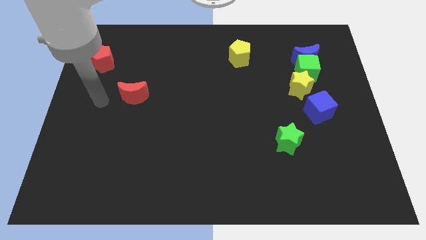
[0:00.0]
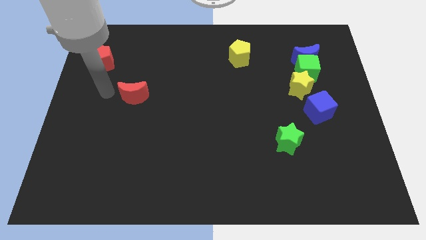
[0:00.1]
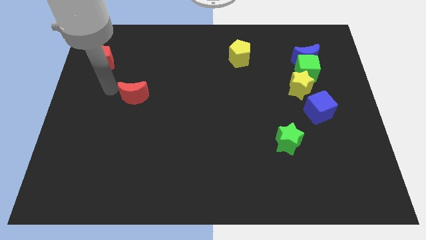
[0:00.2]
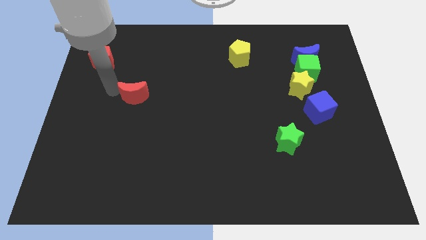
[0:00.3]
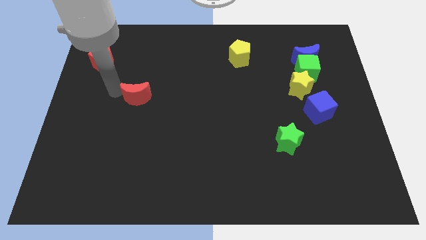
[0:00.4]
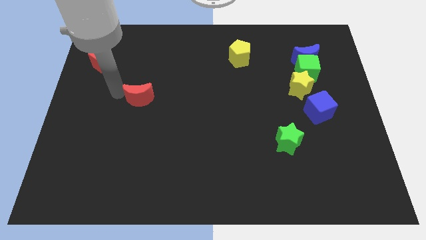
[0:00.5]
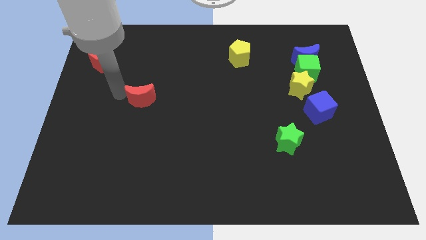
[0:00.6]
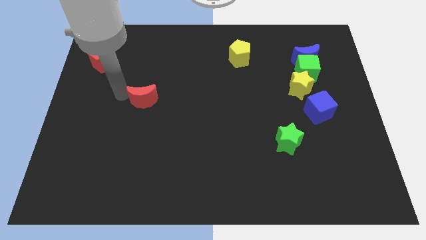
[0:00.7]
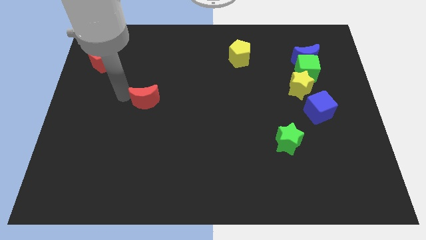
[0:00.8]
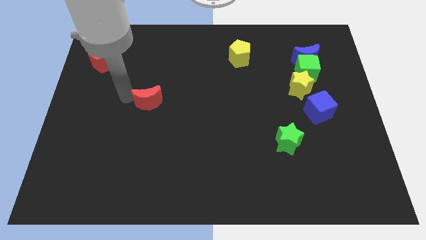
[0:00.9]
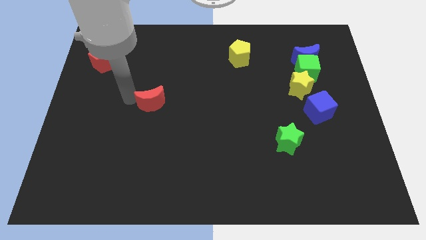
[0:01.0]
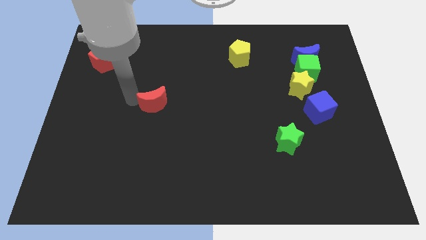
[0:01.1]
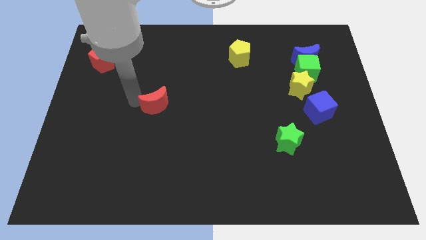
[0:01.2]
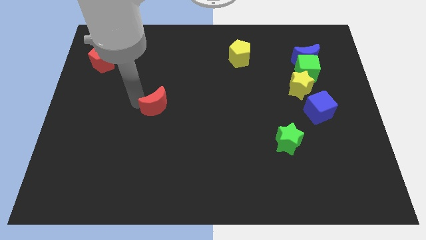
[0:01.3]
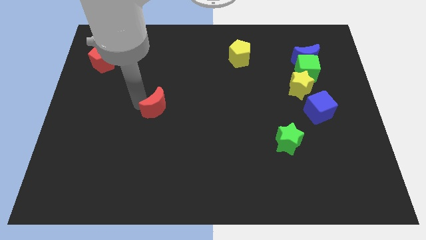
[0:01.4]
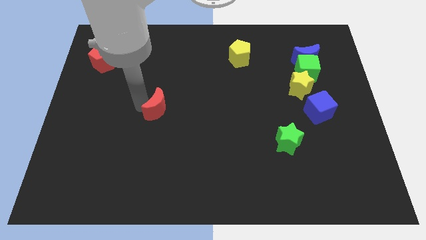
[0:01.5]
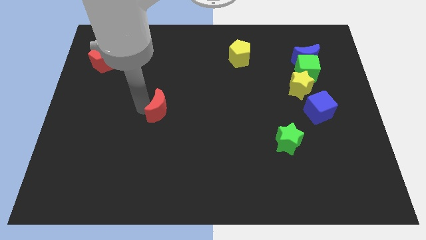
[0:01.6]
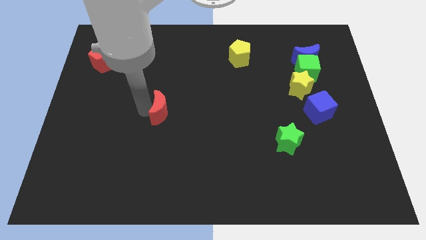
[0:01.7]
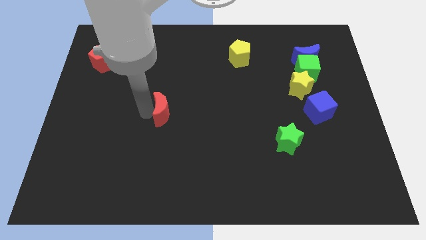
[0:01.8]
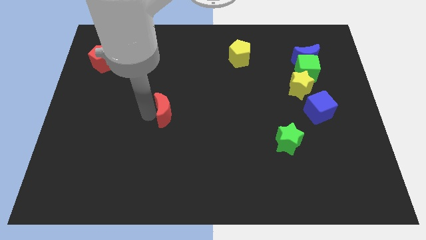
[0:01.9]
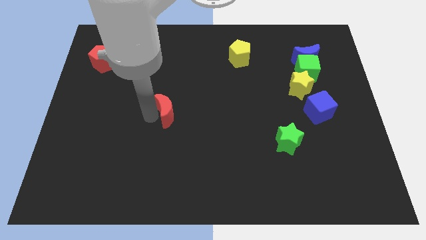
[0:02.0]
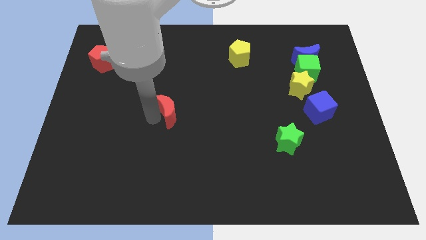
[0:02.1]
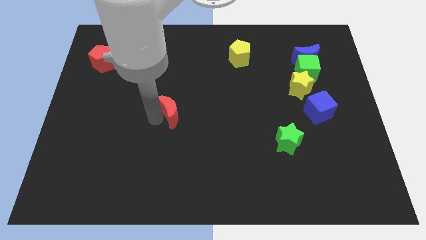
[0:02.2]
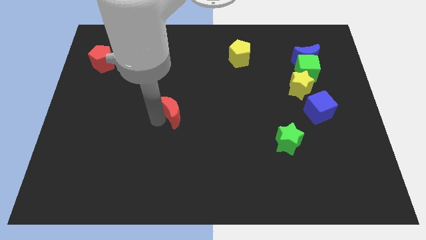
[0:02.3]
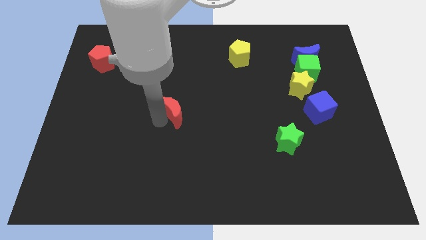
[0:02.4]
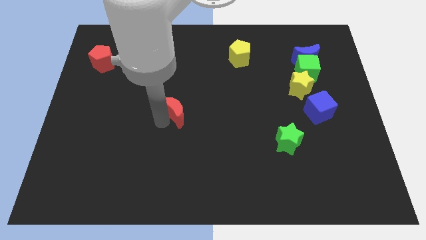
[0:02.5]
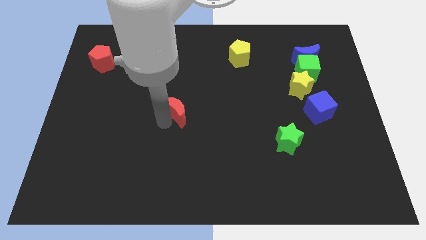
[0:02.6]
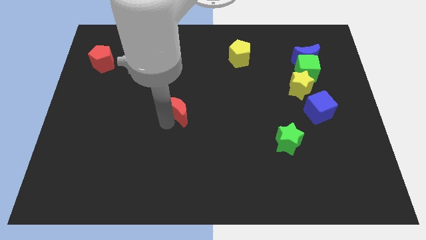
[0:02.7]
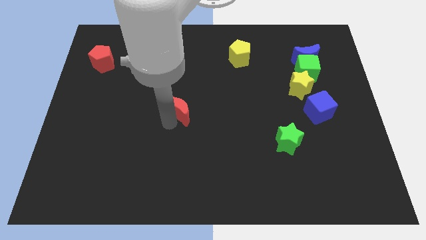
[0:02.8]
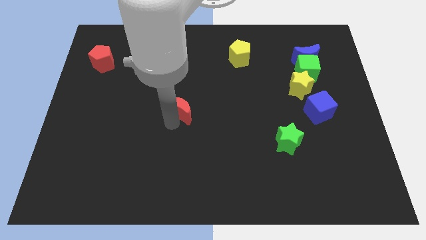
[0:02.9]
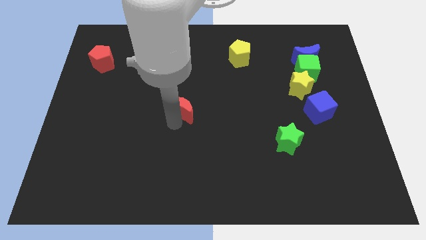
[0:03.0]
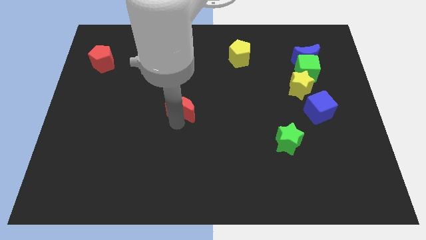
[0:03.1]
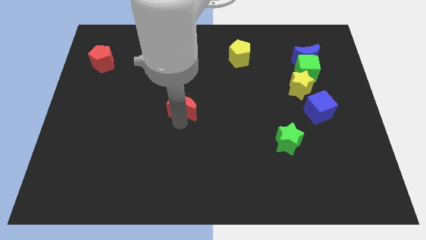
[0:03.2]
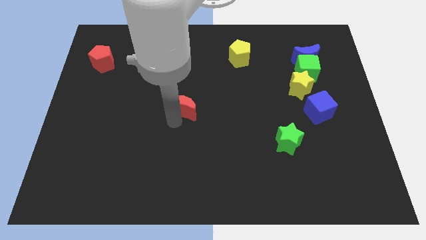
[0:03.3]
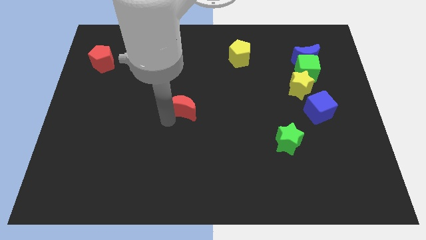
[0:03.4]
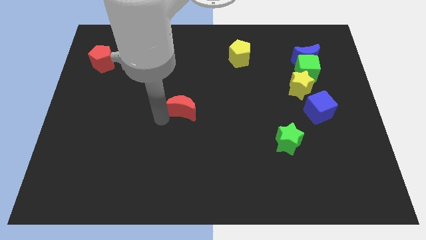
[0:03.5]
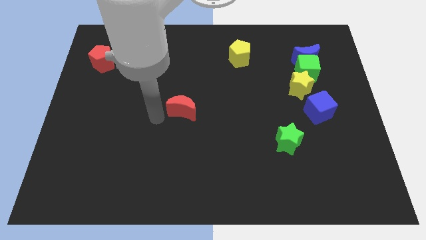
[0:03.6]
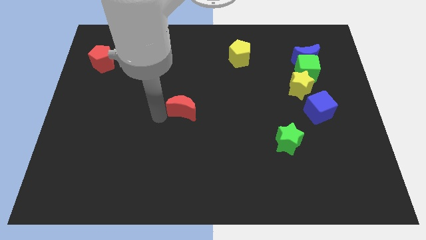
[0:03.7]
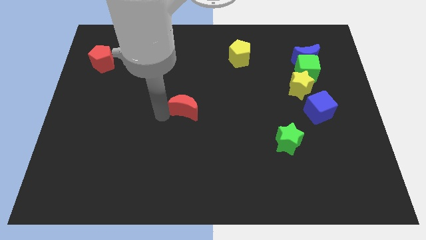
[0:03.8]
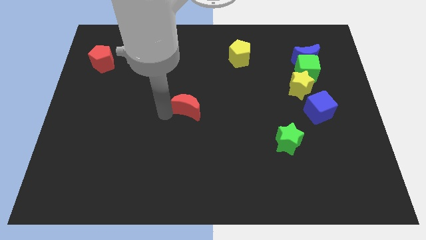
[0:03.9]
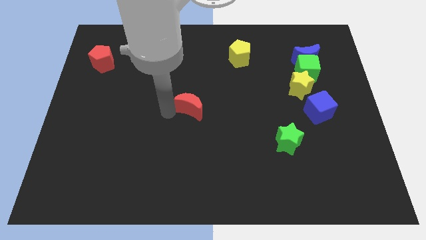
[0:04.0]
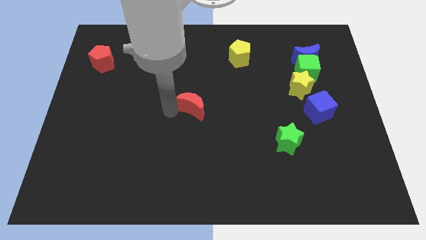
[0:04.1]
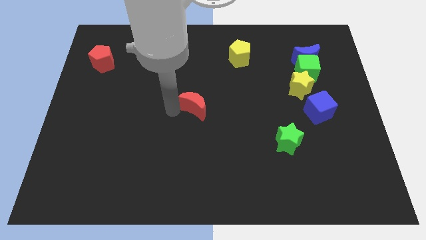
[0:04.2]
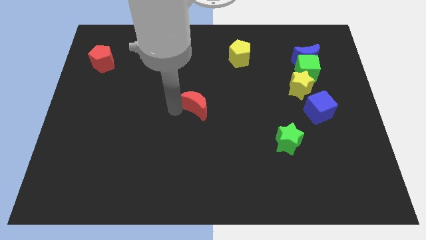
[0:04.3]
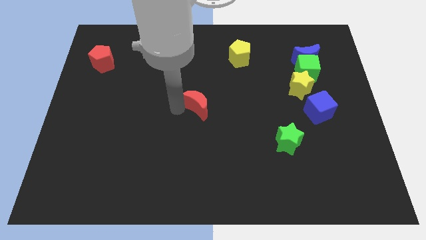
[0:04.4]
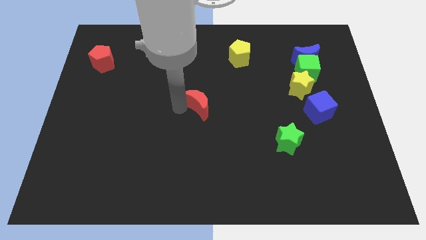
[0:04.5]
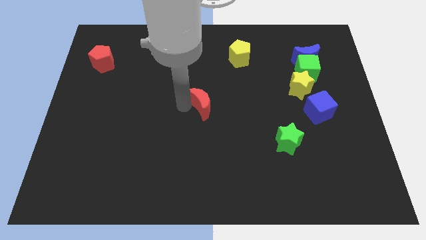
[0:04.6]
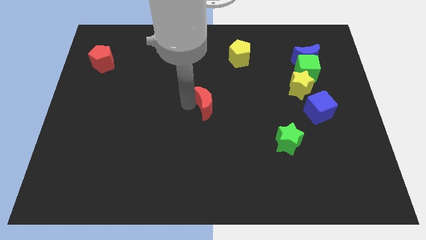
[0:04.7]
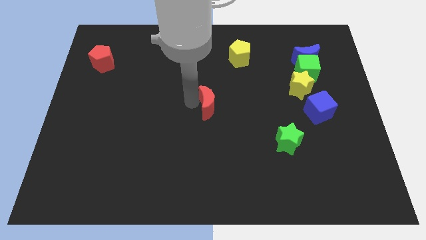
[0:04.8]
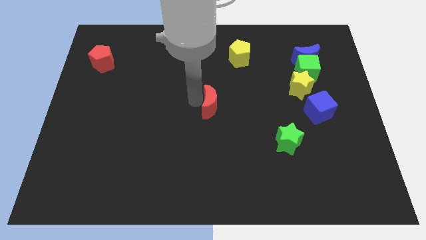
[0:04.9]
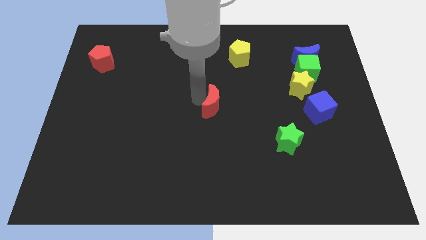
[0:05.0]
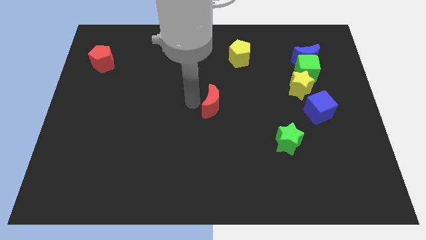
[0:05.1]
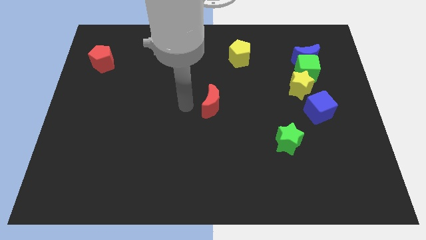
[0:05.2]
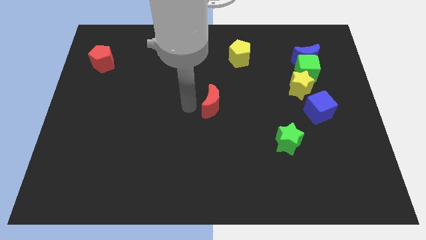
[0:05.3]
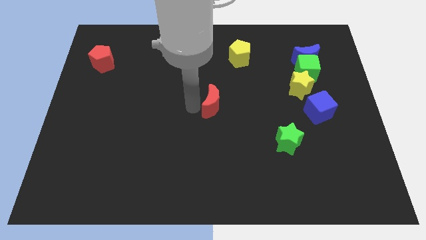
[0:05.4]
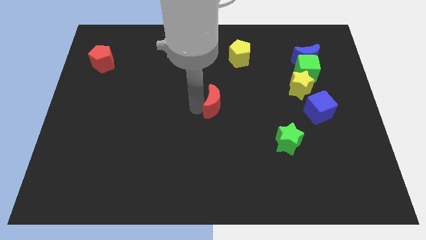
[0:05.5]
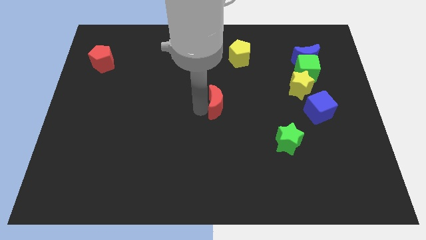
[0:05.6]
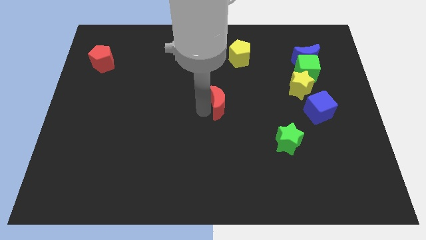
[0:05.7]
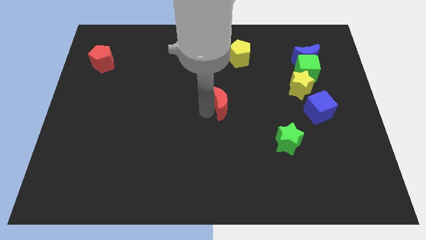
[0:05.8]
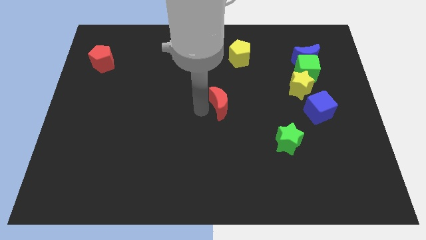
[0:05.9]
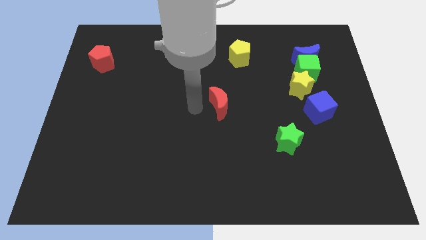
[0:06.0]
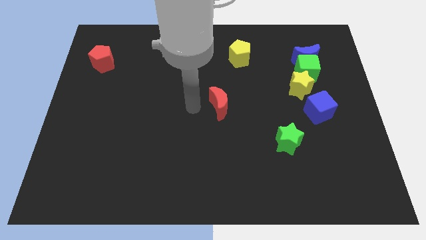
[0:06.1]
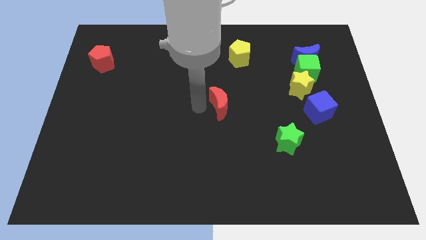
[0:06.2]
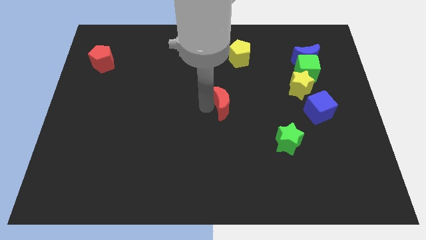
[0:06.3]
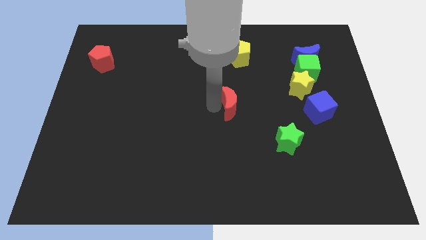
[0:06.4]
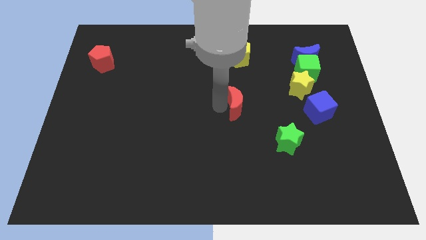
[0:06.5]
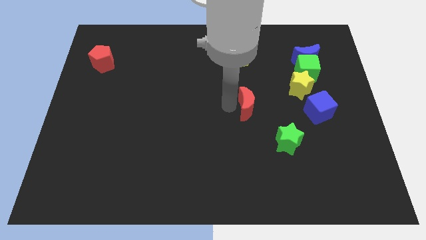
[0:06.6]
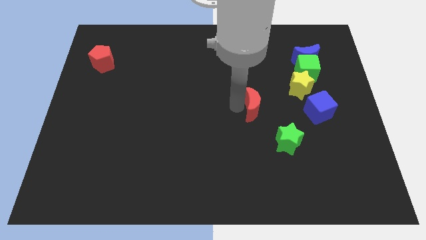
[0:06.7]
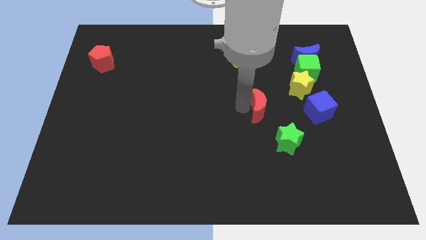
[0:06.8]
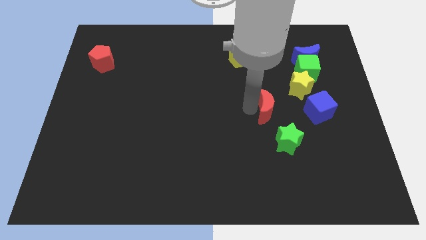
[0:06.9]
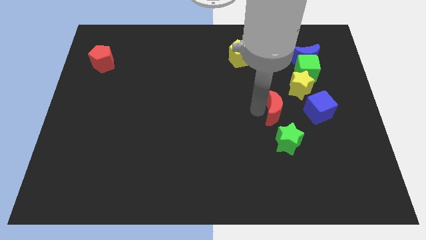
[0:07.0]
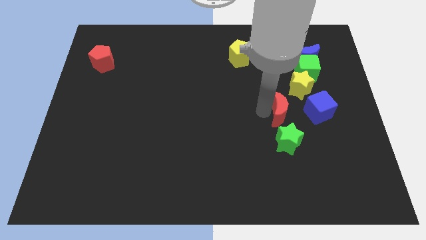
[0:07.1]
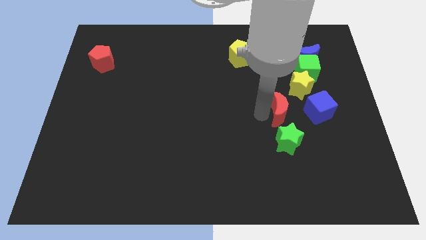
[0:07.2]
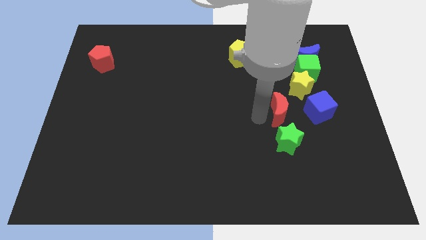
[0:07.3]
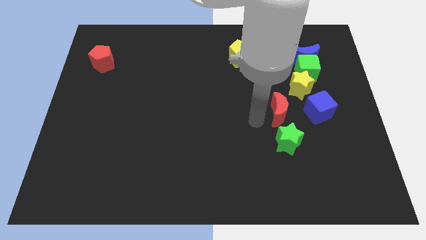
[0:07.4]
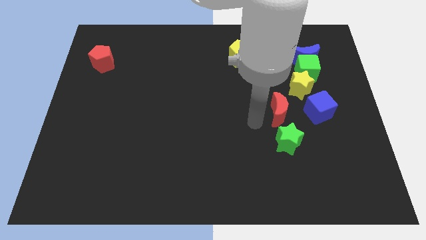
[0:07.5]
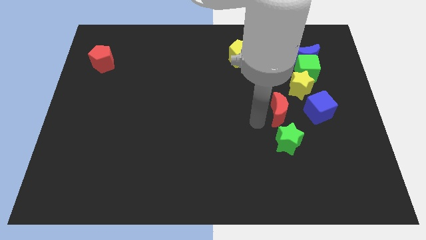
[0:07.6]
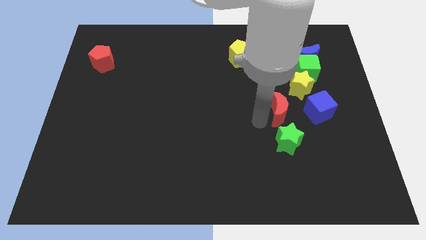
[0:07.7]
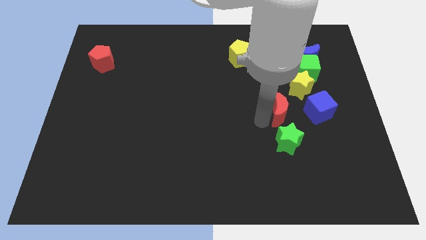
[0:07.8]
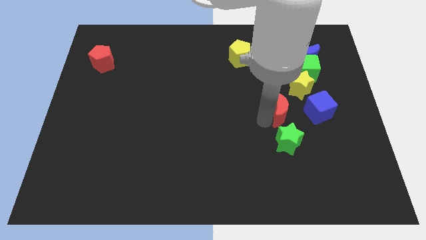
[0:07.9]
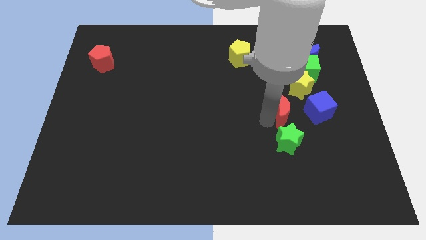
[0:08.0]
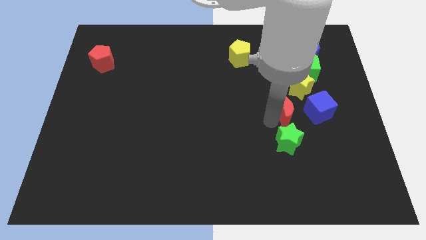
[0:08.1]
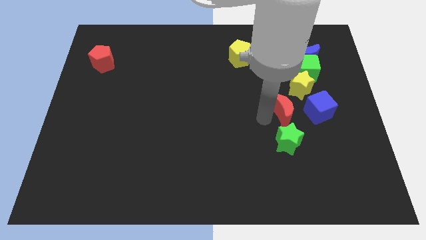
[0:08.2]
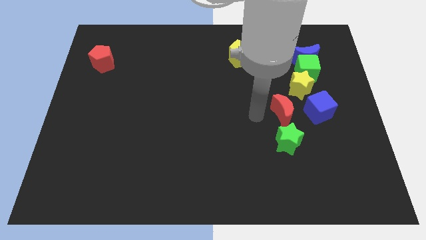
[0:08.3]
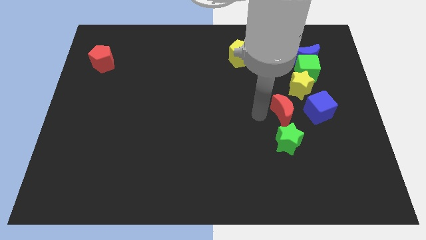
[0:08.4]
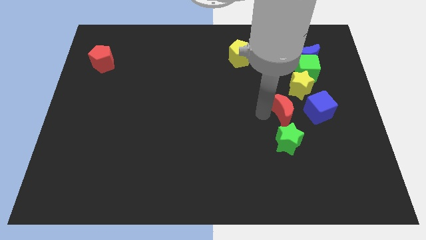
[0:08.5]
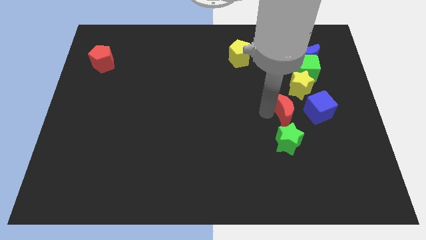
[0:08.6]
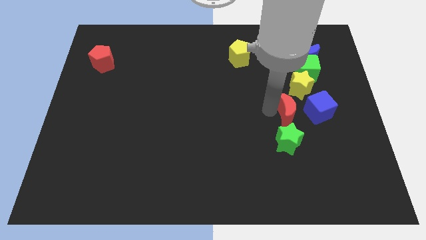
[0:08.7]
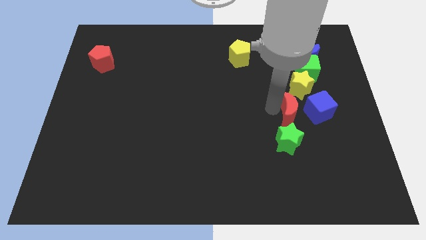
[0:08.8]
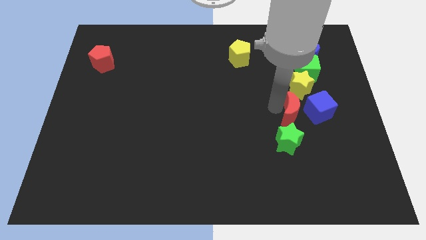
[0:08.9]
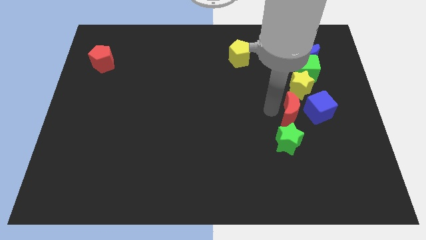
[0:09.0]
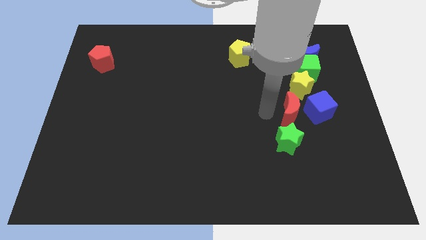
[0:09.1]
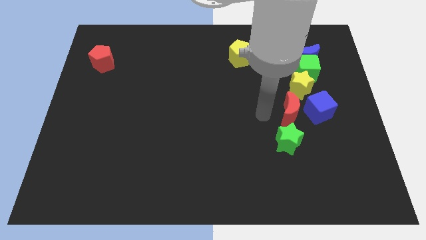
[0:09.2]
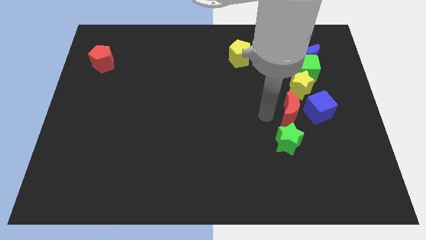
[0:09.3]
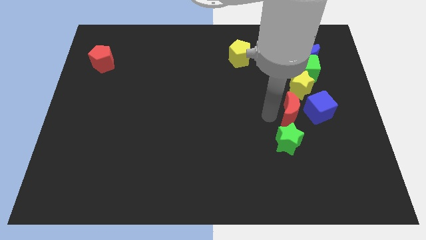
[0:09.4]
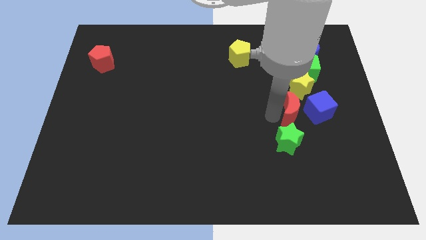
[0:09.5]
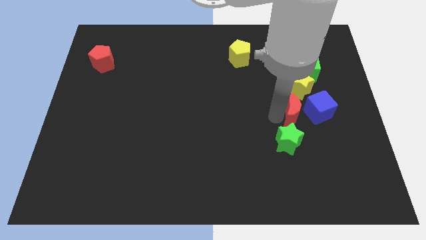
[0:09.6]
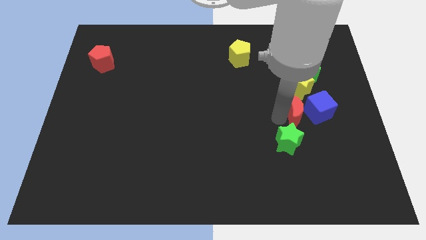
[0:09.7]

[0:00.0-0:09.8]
slide the red moon next to the blue cube
